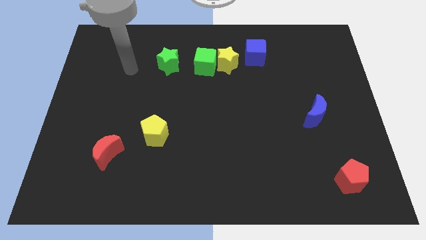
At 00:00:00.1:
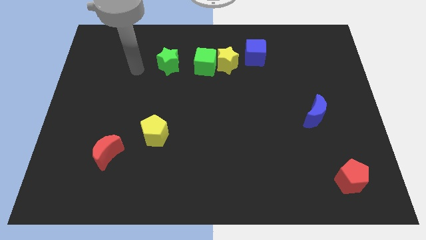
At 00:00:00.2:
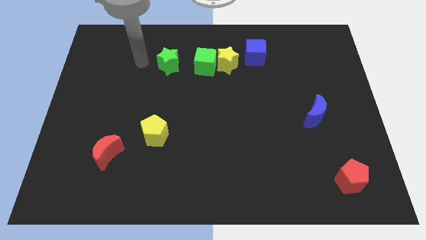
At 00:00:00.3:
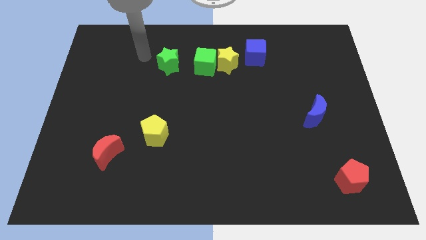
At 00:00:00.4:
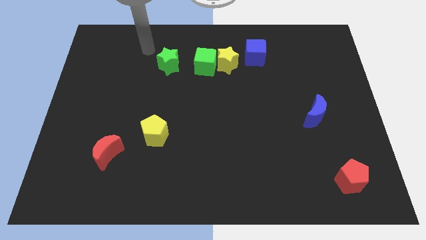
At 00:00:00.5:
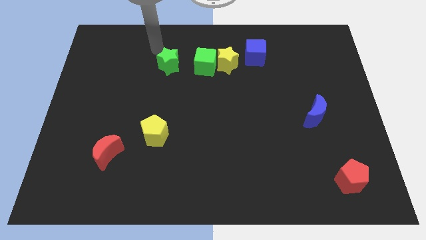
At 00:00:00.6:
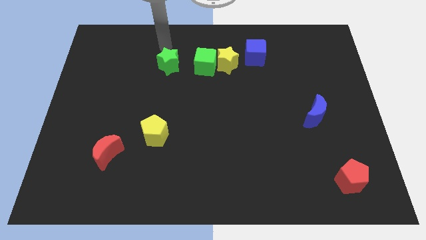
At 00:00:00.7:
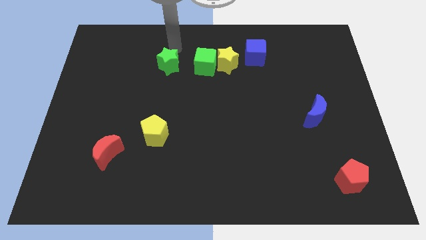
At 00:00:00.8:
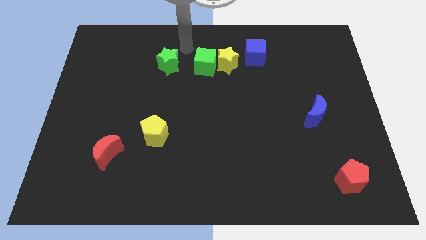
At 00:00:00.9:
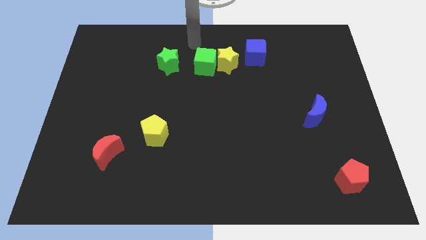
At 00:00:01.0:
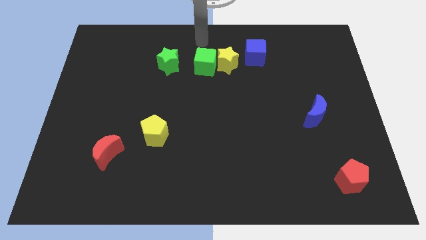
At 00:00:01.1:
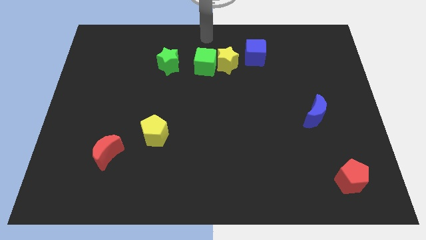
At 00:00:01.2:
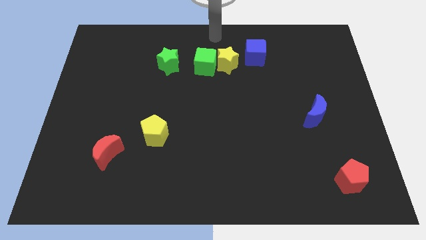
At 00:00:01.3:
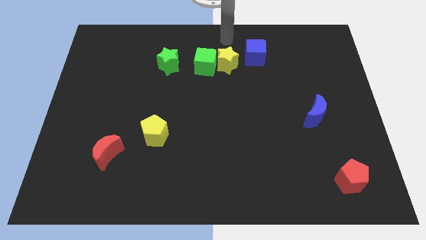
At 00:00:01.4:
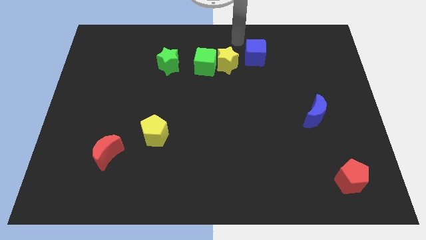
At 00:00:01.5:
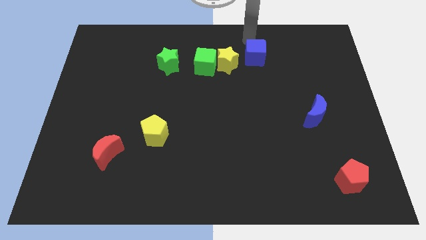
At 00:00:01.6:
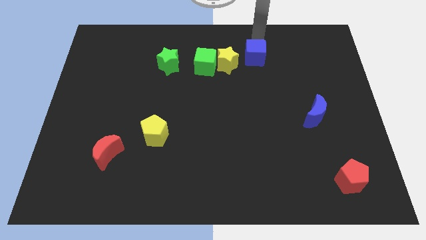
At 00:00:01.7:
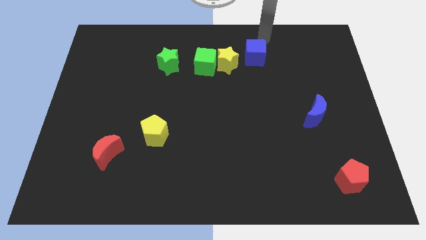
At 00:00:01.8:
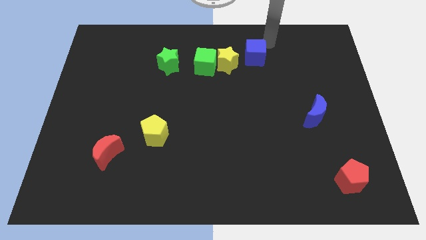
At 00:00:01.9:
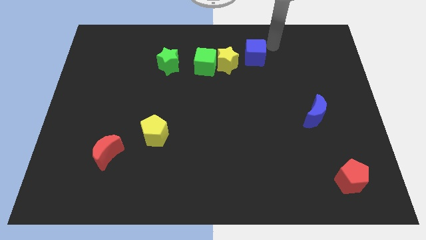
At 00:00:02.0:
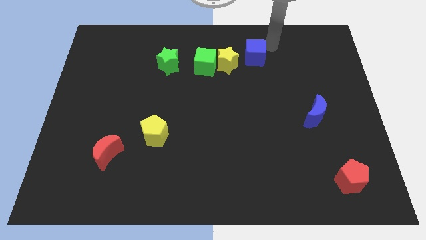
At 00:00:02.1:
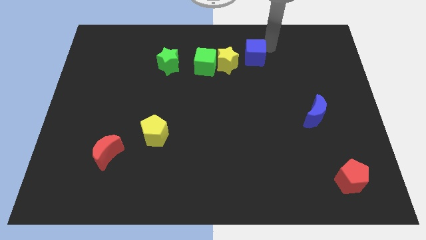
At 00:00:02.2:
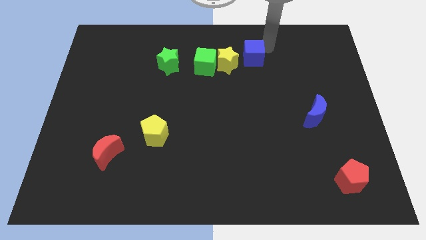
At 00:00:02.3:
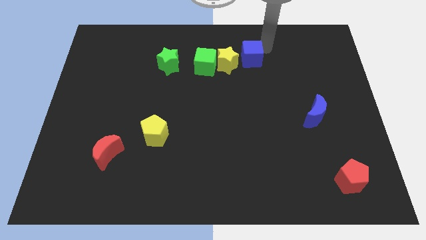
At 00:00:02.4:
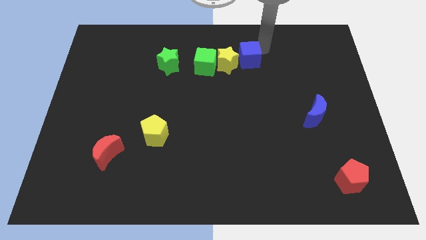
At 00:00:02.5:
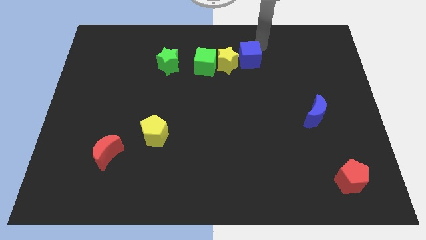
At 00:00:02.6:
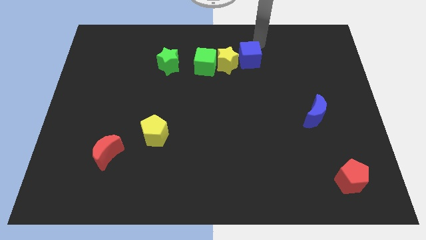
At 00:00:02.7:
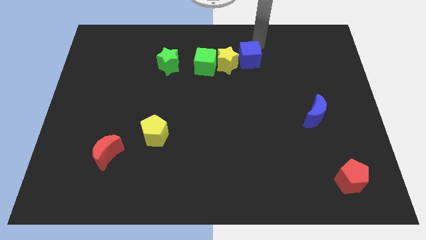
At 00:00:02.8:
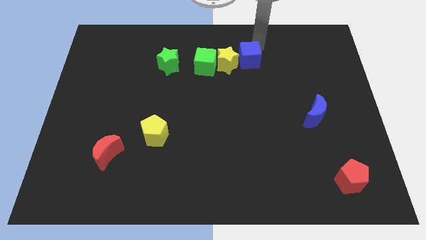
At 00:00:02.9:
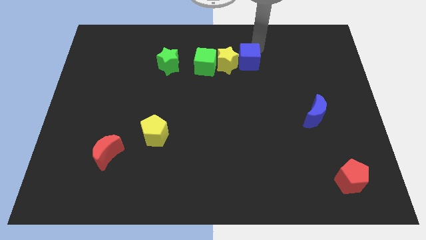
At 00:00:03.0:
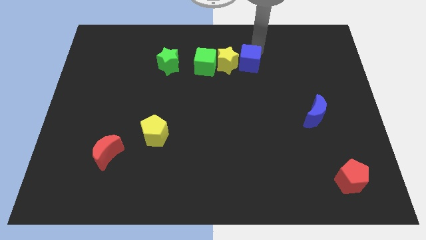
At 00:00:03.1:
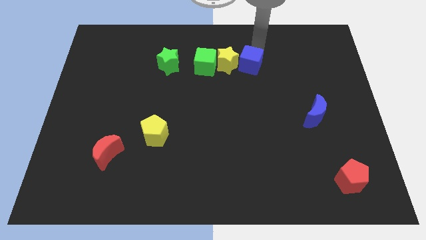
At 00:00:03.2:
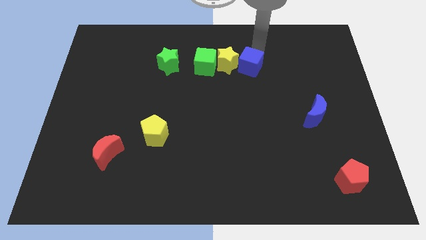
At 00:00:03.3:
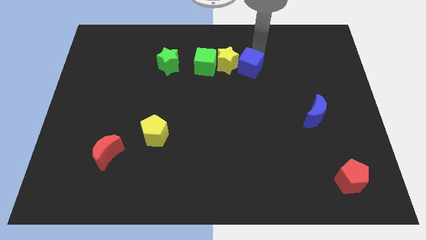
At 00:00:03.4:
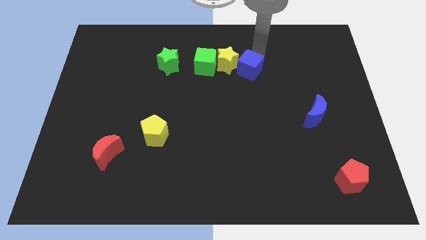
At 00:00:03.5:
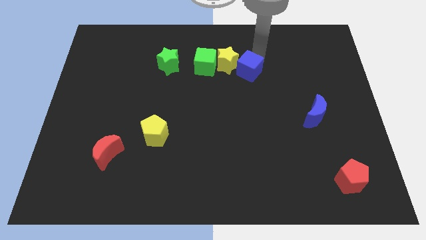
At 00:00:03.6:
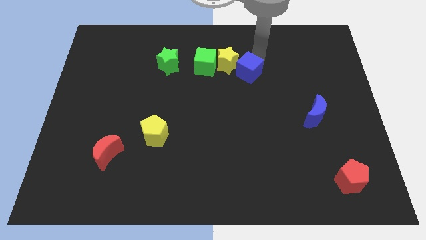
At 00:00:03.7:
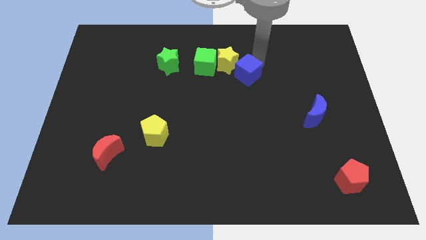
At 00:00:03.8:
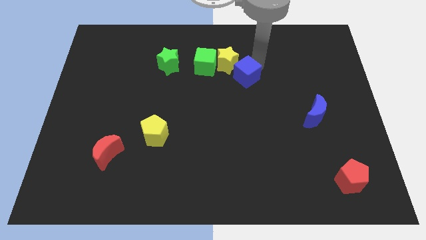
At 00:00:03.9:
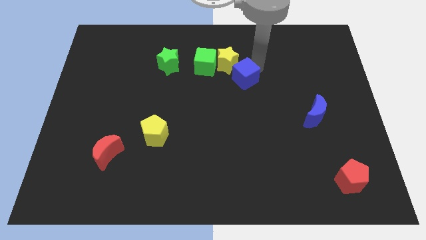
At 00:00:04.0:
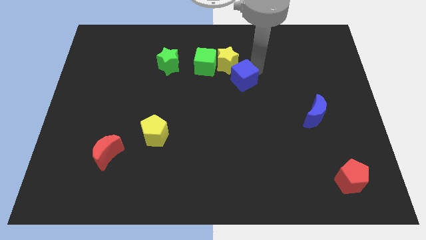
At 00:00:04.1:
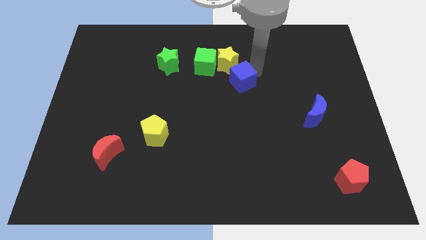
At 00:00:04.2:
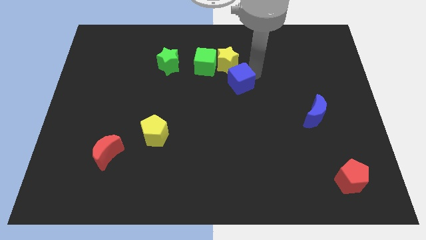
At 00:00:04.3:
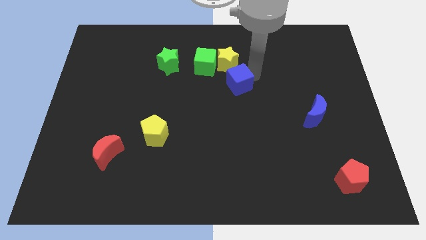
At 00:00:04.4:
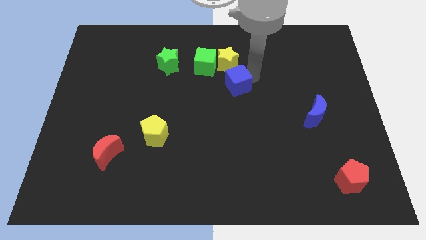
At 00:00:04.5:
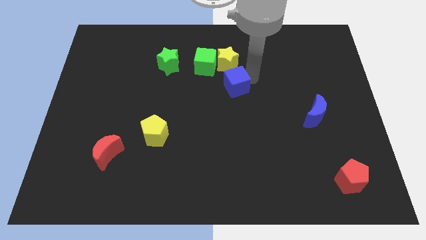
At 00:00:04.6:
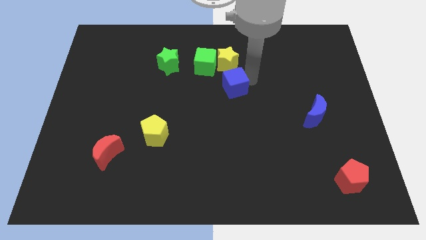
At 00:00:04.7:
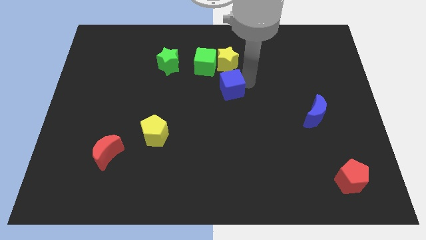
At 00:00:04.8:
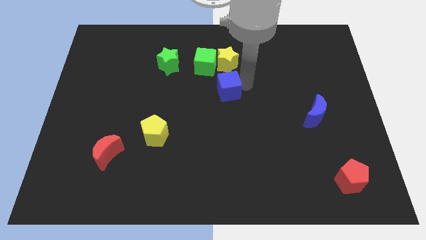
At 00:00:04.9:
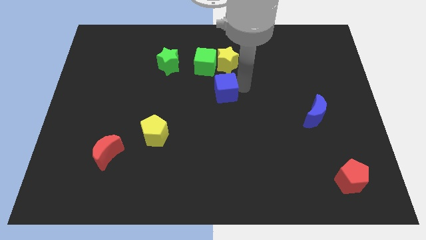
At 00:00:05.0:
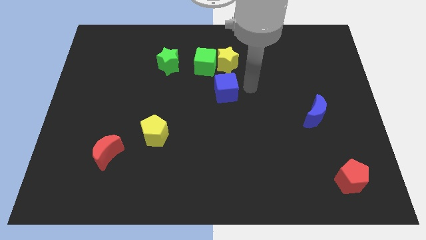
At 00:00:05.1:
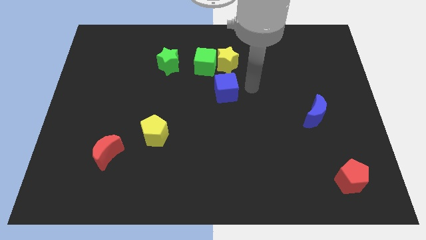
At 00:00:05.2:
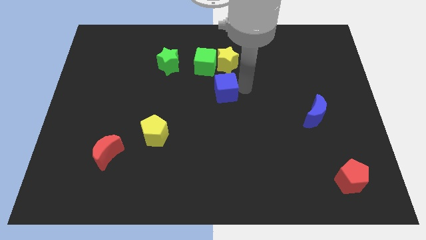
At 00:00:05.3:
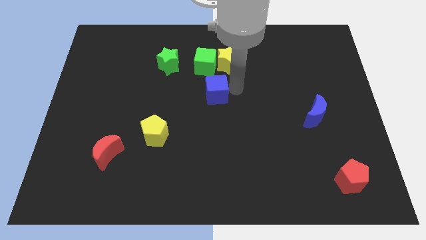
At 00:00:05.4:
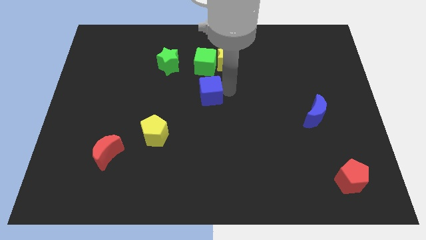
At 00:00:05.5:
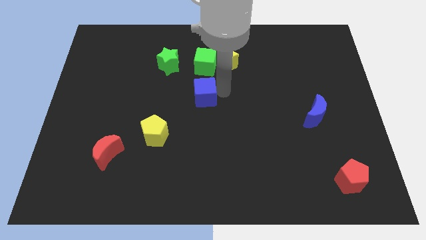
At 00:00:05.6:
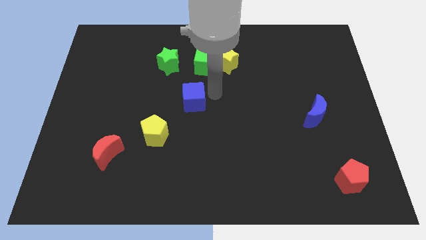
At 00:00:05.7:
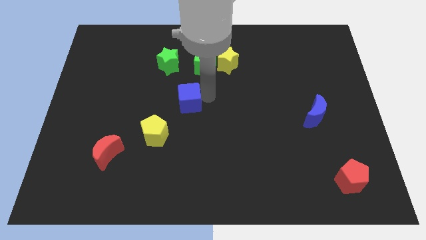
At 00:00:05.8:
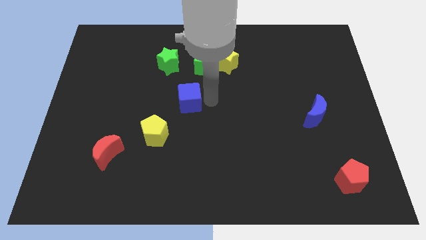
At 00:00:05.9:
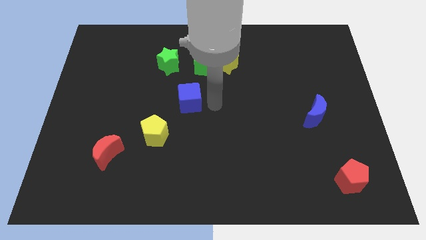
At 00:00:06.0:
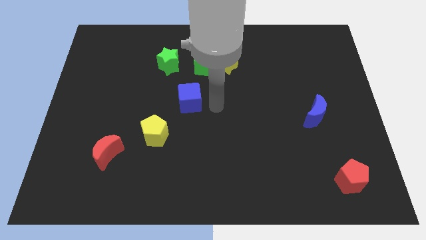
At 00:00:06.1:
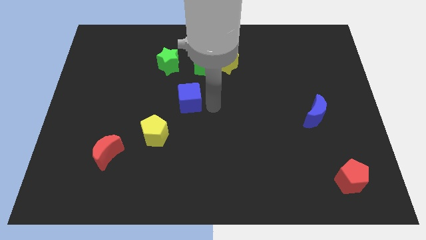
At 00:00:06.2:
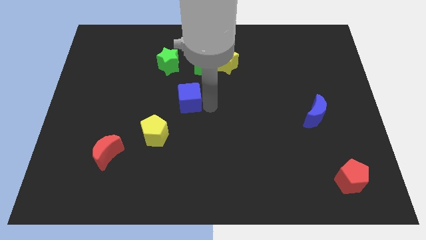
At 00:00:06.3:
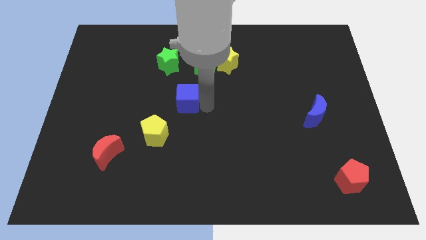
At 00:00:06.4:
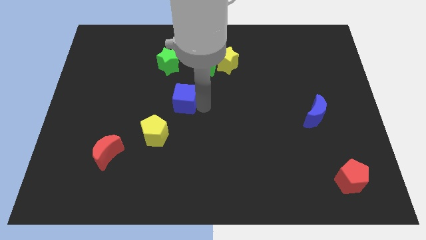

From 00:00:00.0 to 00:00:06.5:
slide the blue cube to the bottom side of the green star
